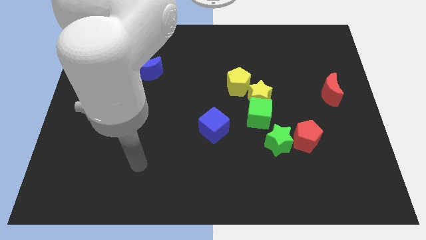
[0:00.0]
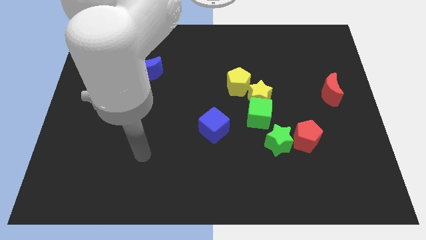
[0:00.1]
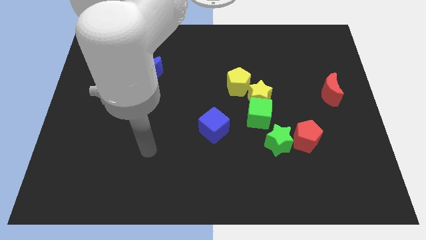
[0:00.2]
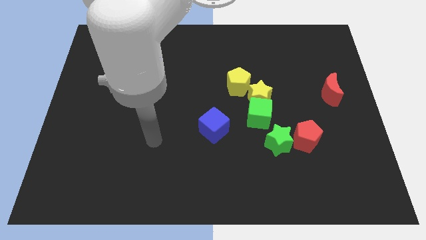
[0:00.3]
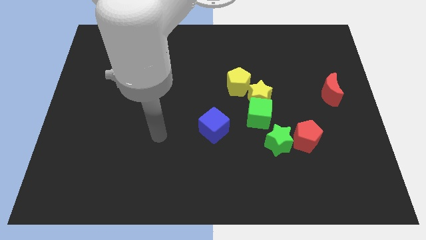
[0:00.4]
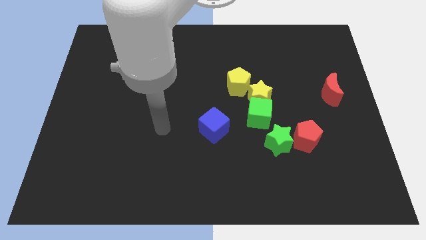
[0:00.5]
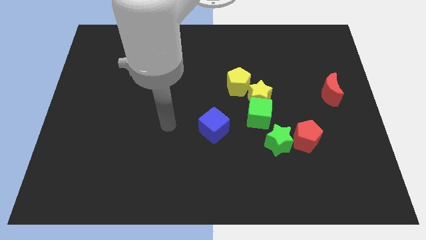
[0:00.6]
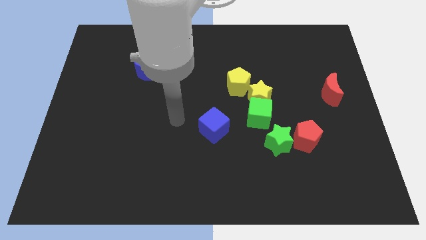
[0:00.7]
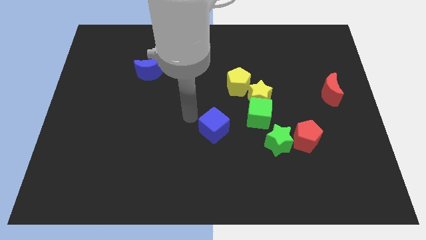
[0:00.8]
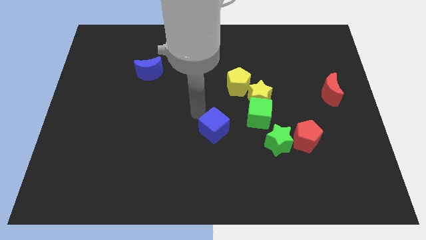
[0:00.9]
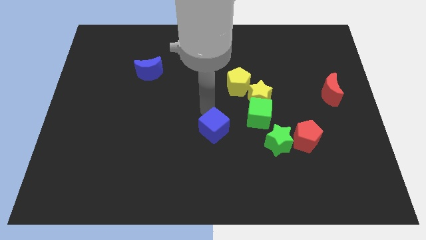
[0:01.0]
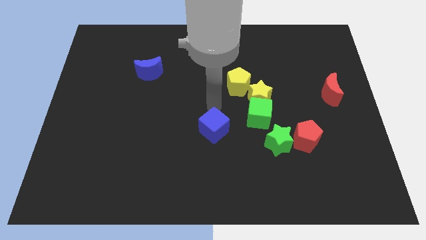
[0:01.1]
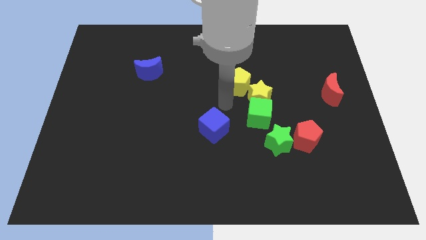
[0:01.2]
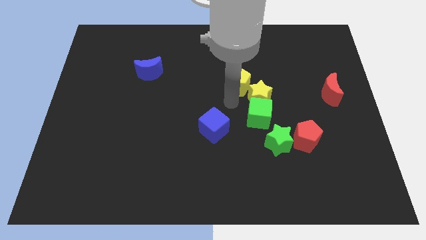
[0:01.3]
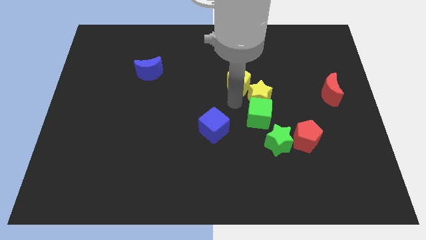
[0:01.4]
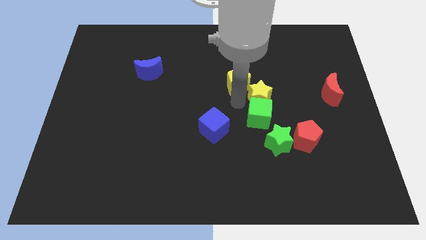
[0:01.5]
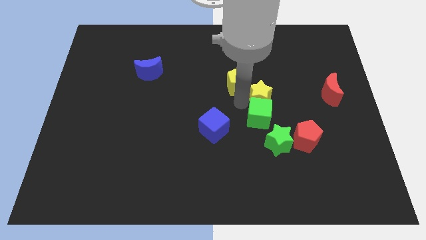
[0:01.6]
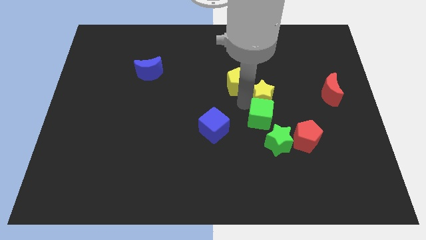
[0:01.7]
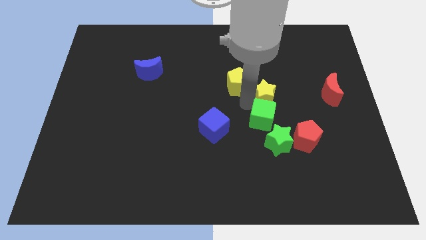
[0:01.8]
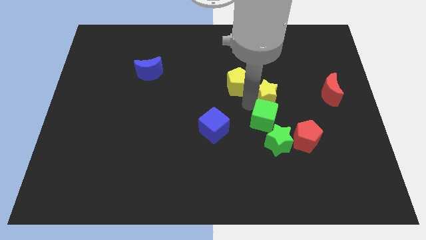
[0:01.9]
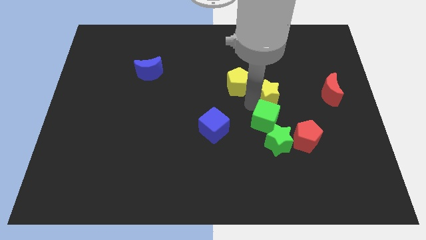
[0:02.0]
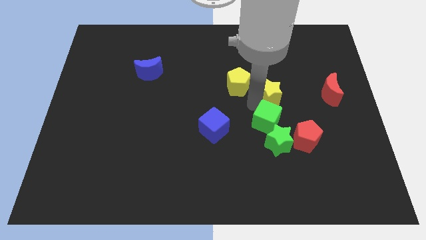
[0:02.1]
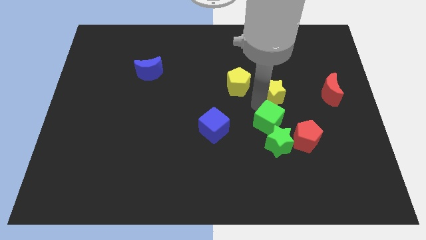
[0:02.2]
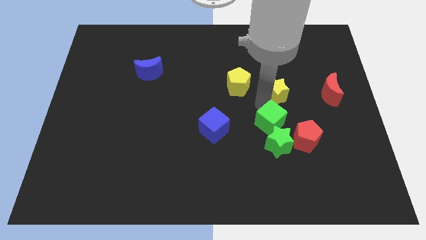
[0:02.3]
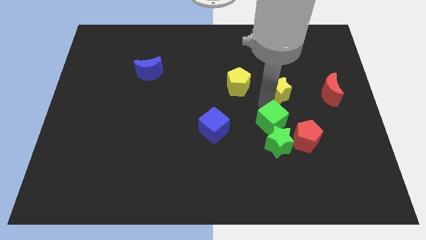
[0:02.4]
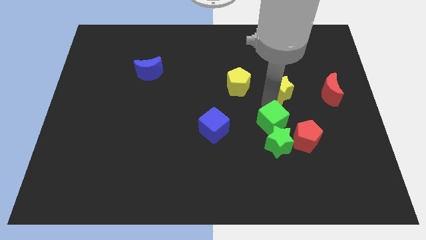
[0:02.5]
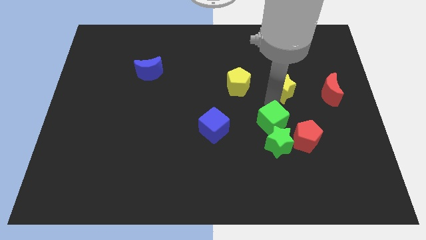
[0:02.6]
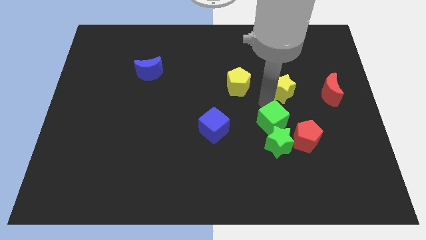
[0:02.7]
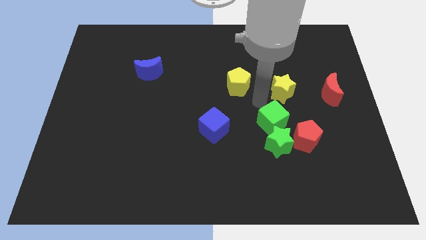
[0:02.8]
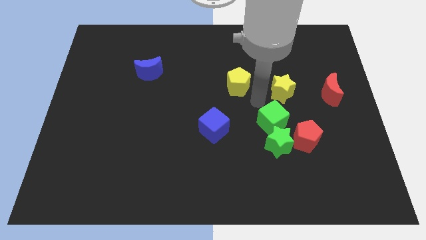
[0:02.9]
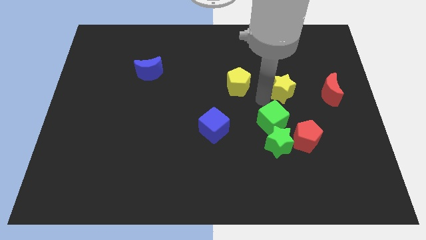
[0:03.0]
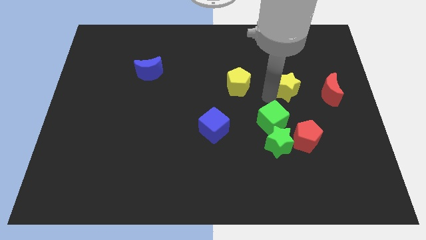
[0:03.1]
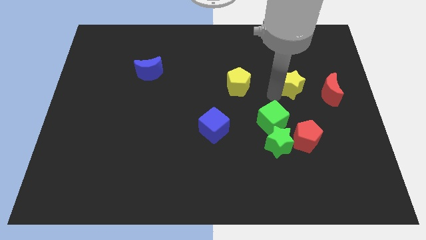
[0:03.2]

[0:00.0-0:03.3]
separate the yellow star from the green cube and yellow pentagon

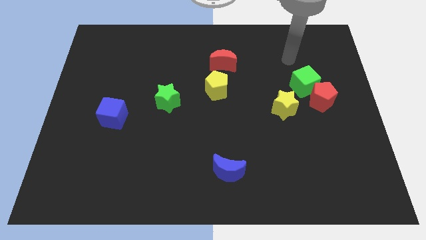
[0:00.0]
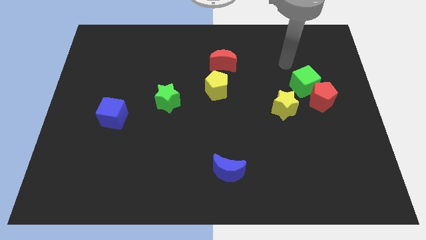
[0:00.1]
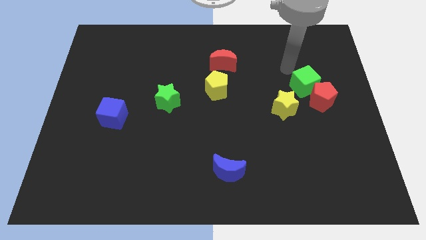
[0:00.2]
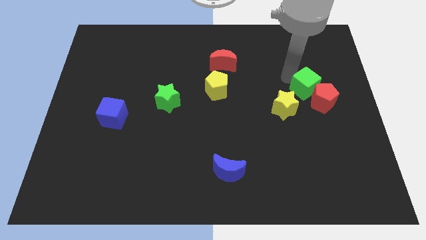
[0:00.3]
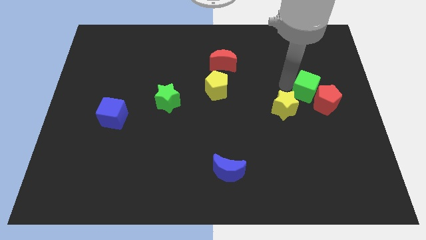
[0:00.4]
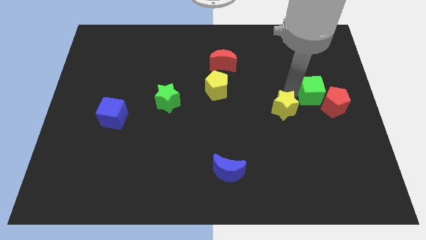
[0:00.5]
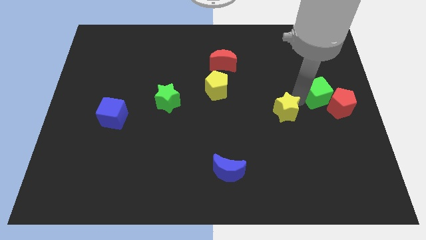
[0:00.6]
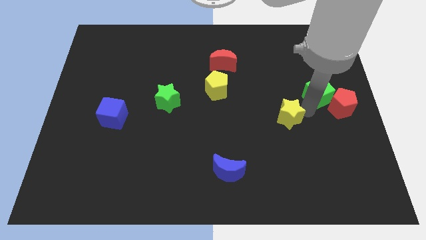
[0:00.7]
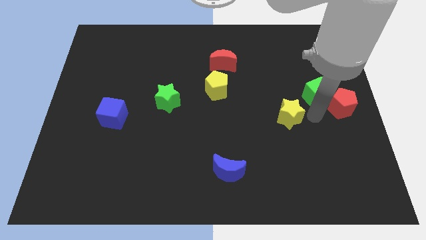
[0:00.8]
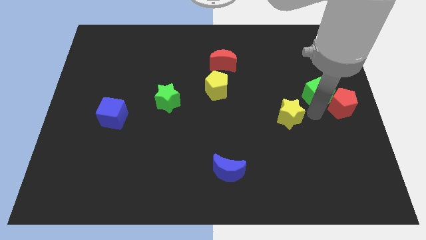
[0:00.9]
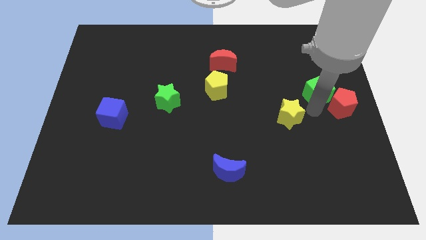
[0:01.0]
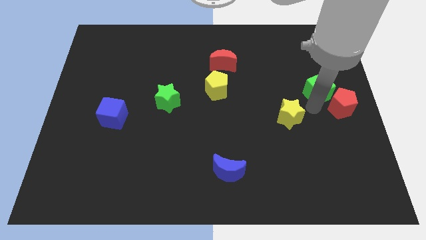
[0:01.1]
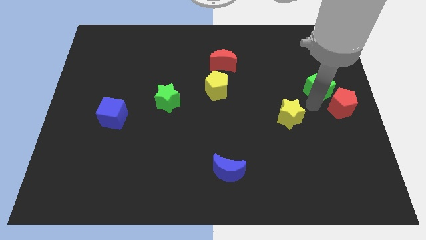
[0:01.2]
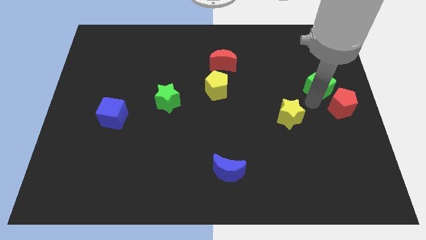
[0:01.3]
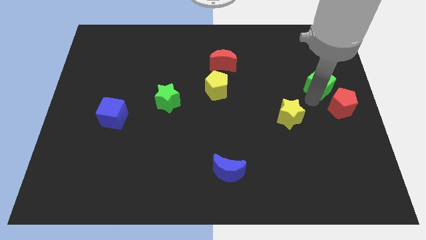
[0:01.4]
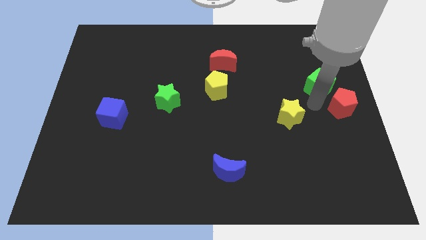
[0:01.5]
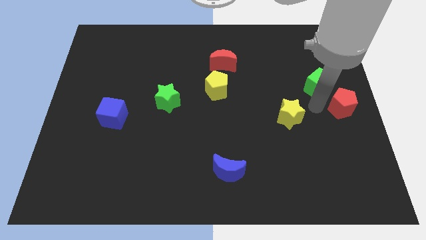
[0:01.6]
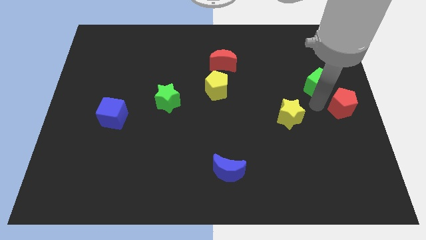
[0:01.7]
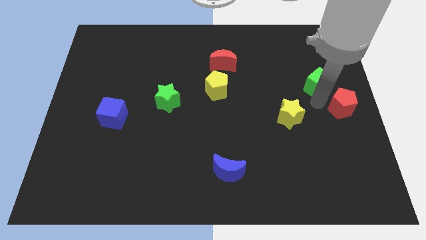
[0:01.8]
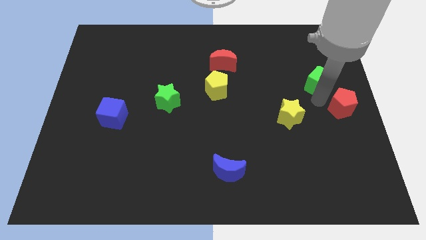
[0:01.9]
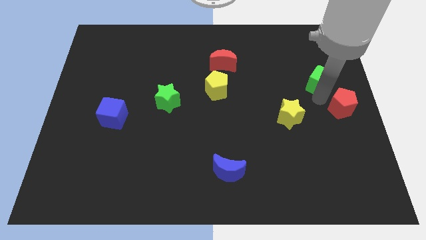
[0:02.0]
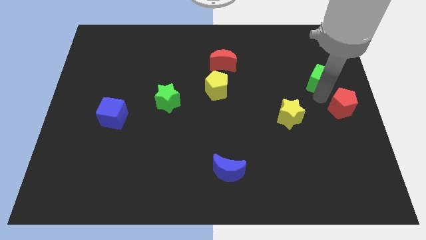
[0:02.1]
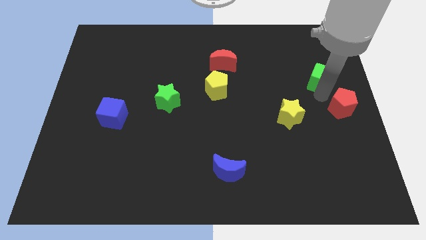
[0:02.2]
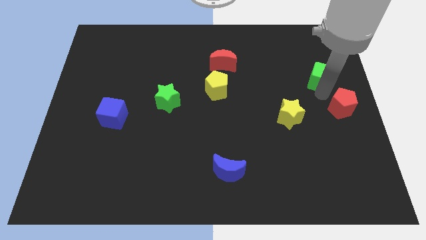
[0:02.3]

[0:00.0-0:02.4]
move the green cube away from the red pentagon and yellow star

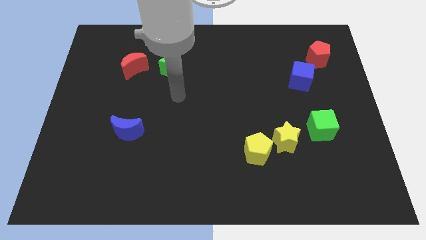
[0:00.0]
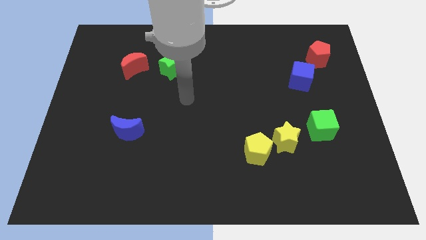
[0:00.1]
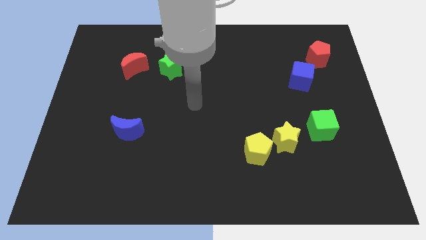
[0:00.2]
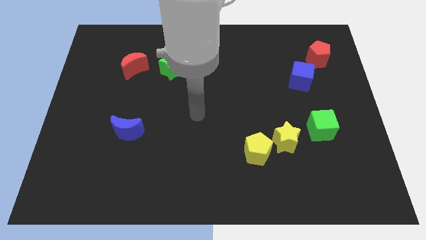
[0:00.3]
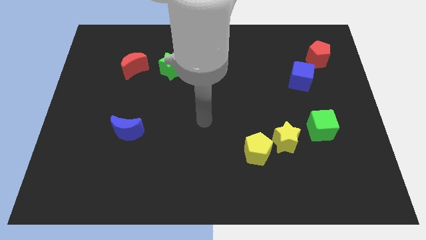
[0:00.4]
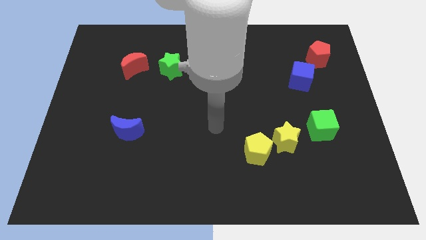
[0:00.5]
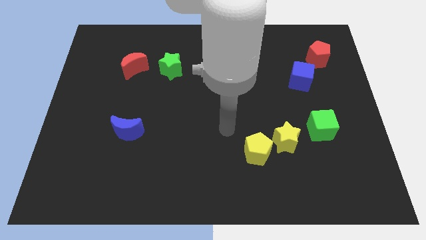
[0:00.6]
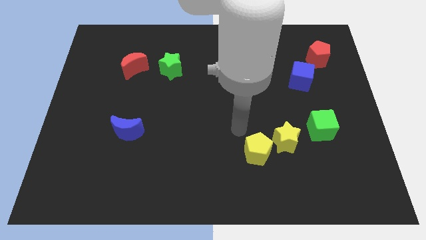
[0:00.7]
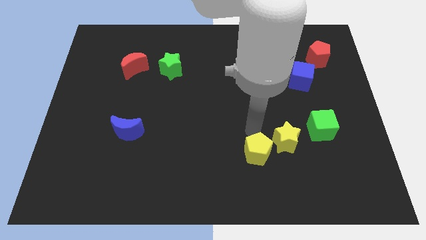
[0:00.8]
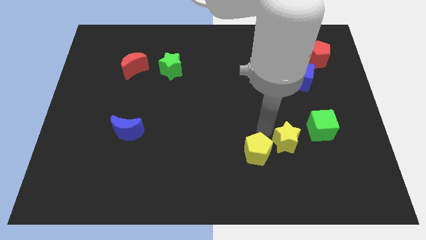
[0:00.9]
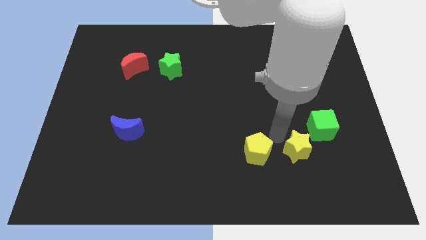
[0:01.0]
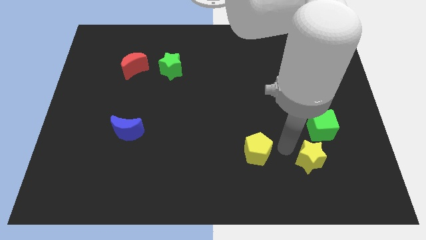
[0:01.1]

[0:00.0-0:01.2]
move the yellow pentagon away from the yellow star

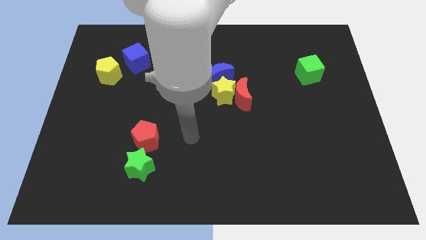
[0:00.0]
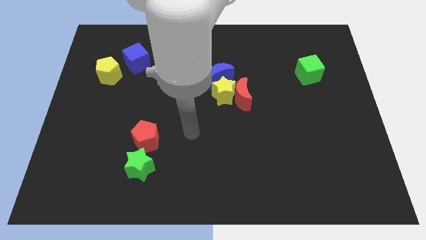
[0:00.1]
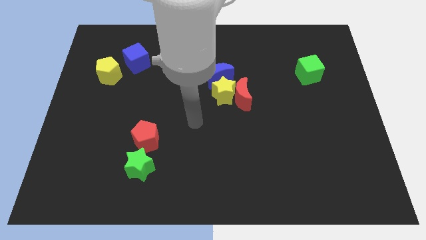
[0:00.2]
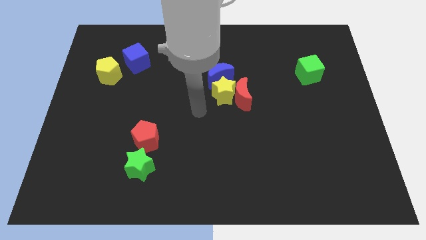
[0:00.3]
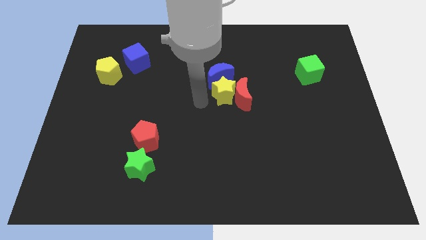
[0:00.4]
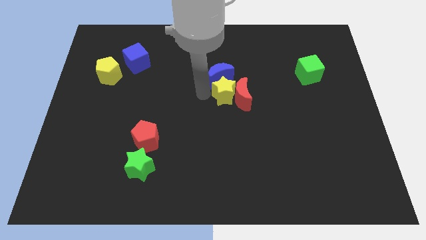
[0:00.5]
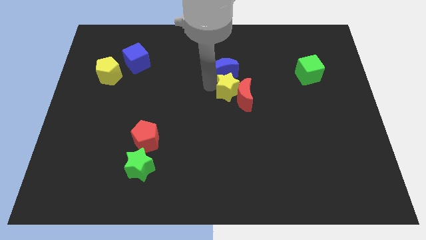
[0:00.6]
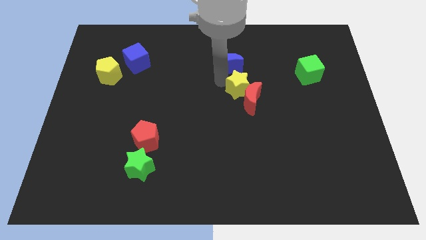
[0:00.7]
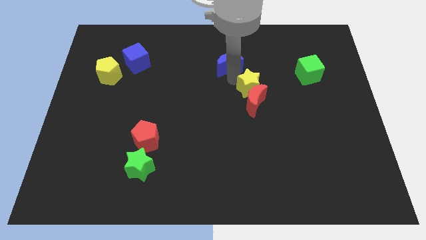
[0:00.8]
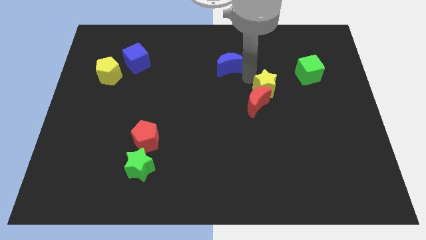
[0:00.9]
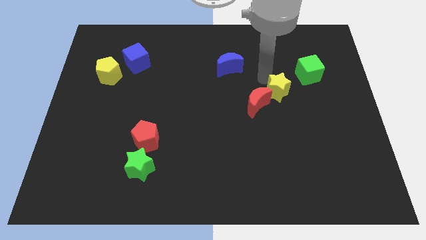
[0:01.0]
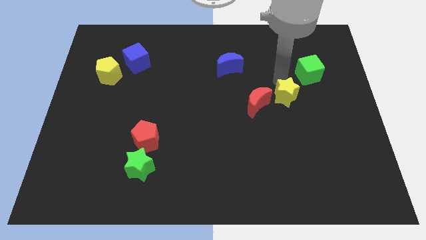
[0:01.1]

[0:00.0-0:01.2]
separate the yellow star from the red moon and blue moon

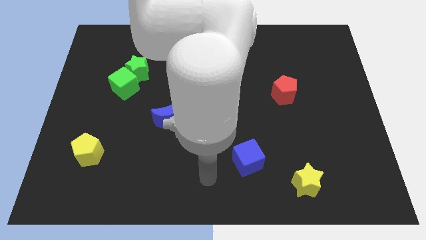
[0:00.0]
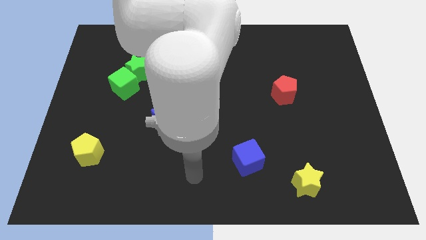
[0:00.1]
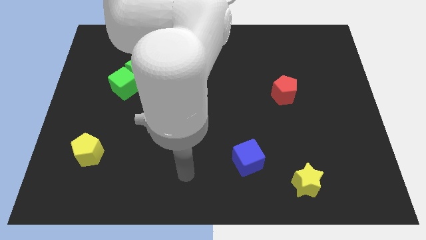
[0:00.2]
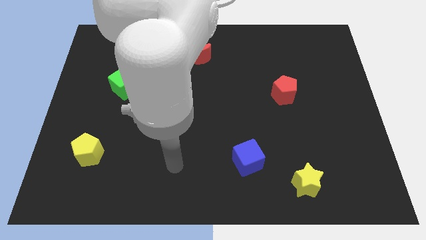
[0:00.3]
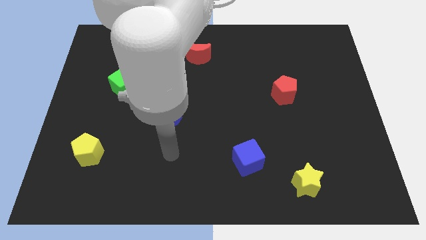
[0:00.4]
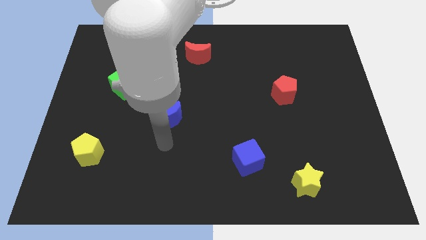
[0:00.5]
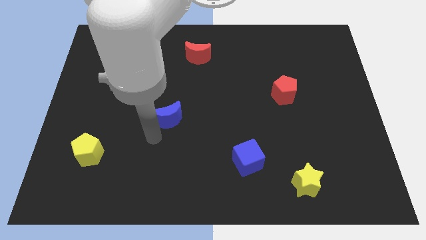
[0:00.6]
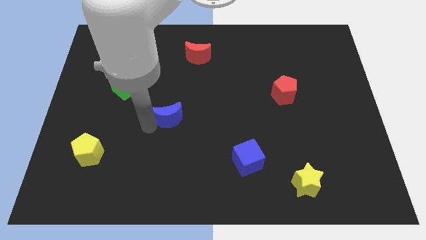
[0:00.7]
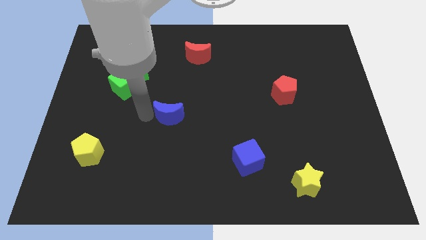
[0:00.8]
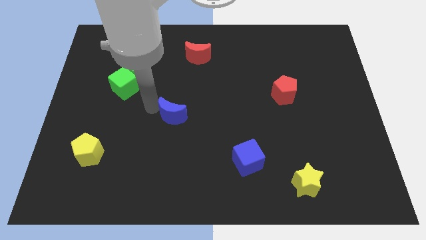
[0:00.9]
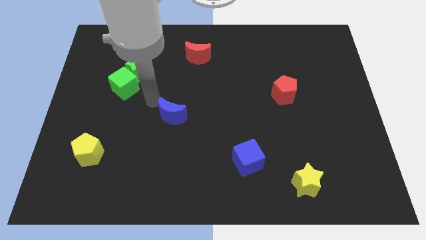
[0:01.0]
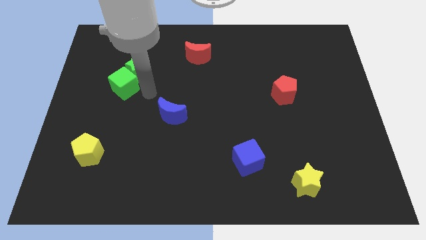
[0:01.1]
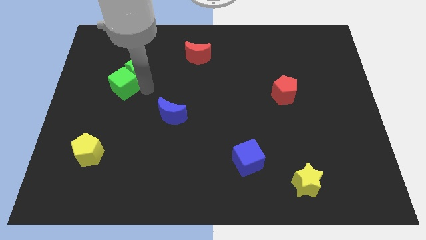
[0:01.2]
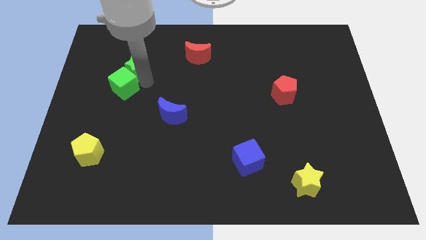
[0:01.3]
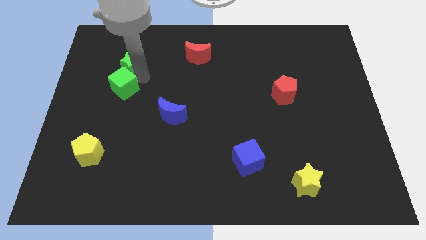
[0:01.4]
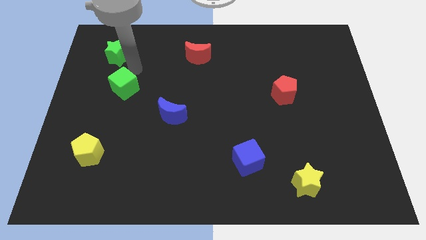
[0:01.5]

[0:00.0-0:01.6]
separate the green cube from the green star
